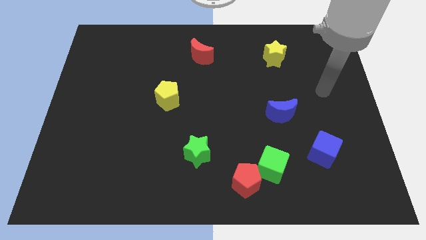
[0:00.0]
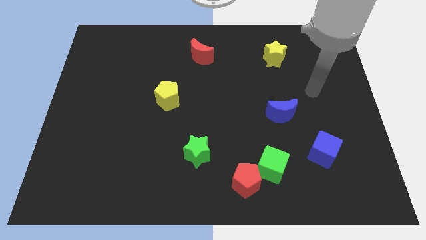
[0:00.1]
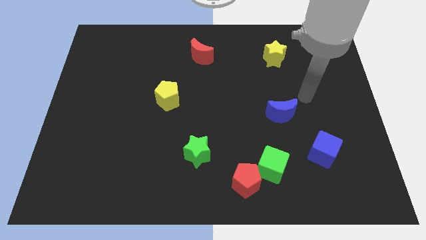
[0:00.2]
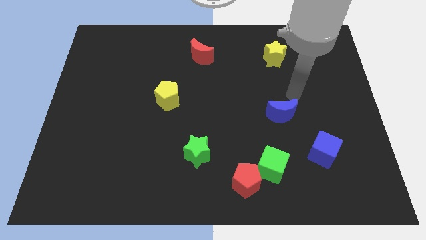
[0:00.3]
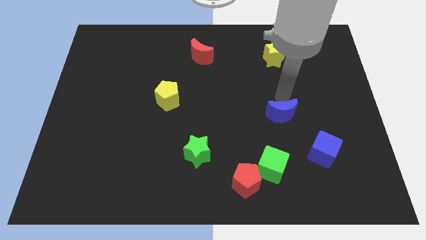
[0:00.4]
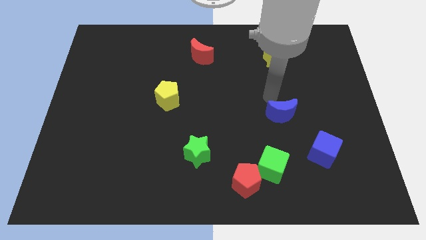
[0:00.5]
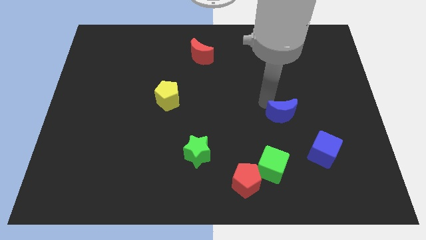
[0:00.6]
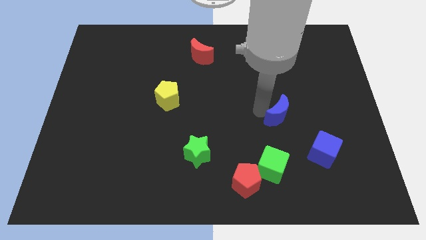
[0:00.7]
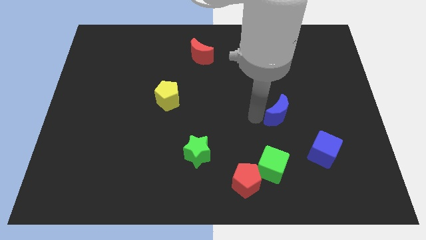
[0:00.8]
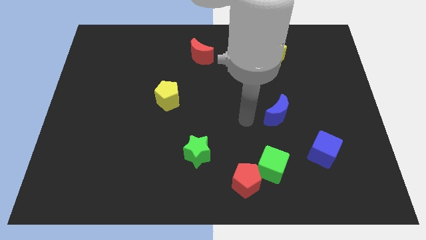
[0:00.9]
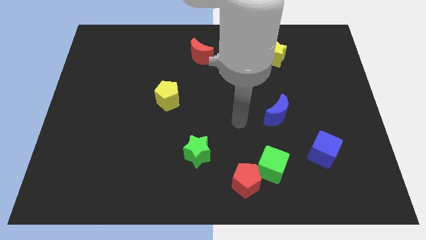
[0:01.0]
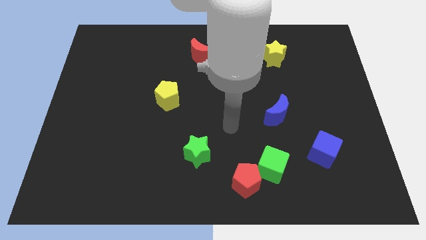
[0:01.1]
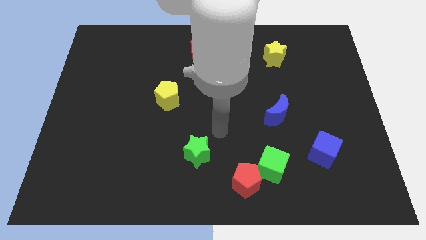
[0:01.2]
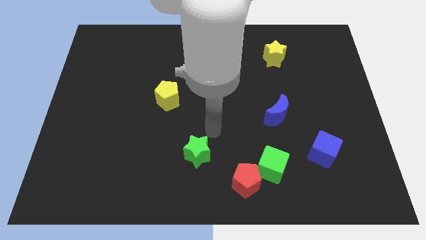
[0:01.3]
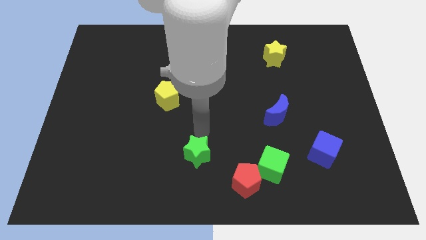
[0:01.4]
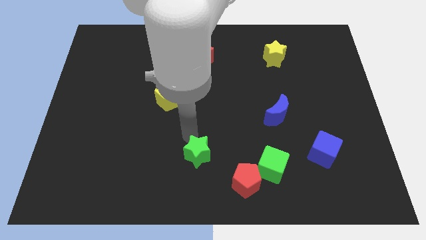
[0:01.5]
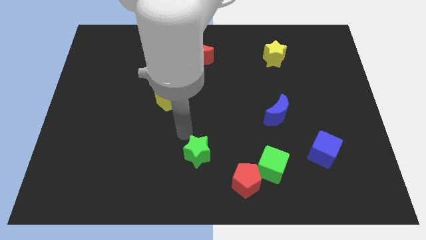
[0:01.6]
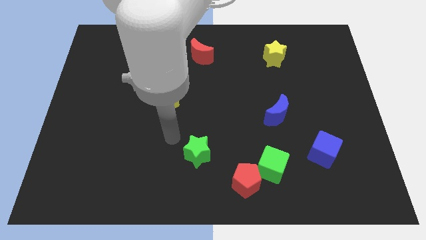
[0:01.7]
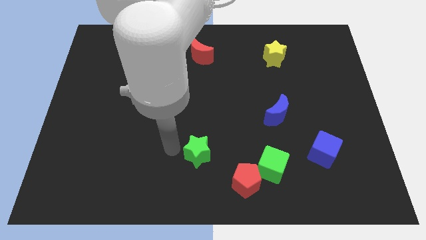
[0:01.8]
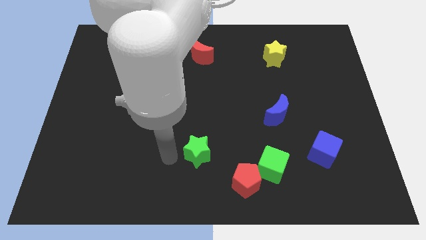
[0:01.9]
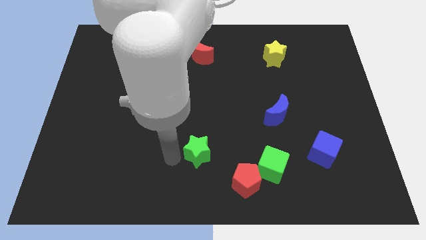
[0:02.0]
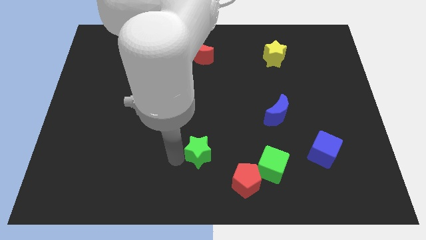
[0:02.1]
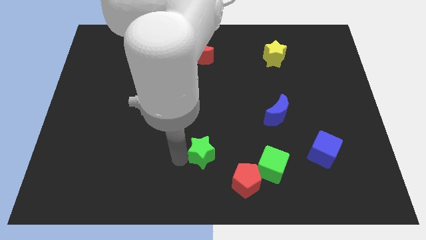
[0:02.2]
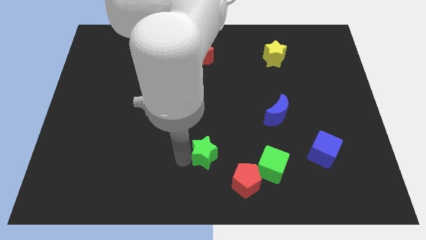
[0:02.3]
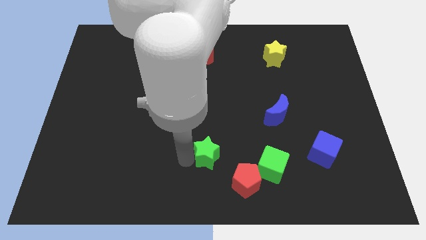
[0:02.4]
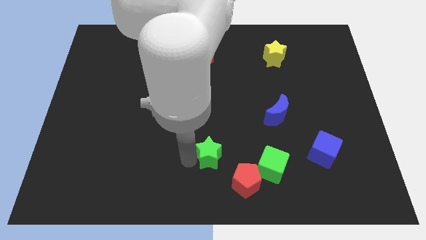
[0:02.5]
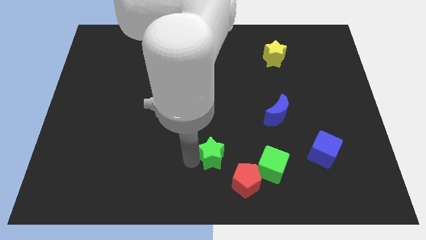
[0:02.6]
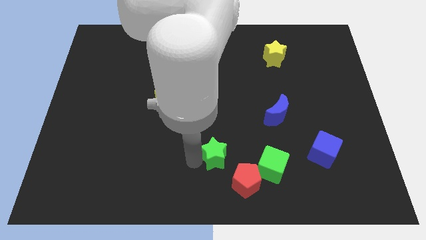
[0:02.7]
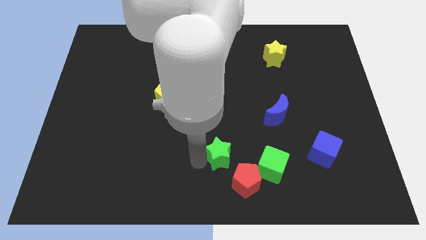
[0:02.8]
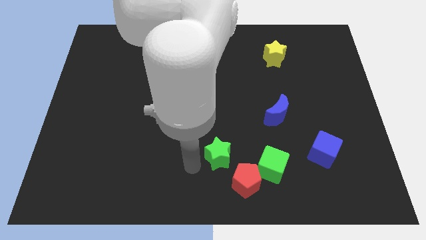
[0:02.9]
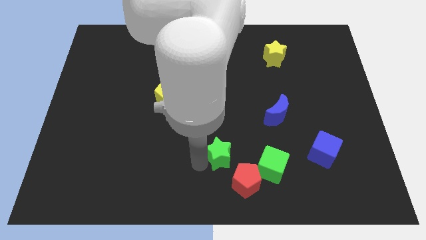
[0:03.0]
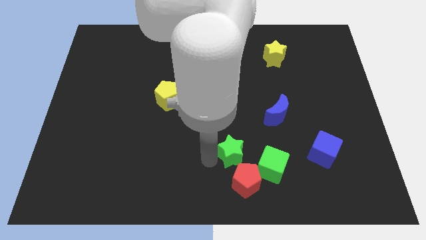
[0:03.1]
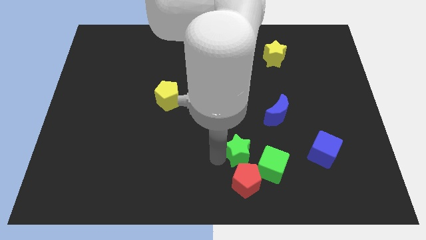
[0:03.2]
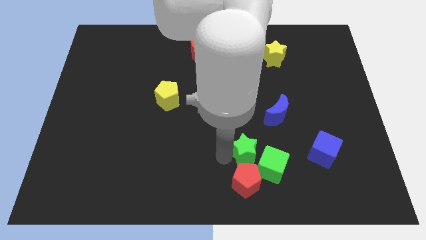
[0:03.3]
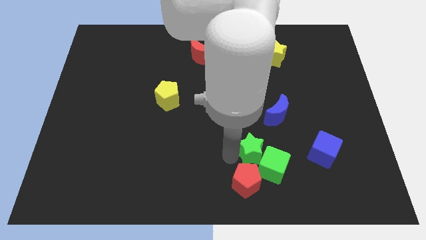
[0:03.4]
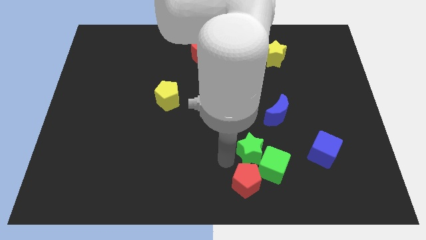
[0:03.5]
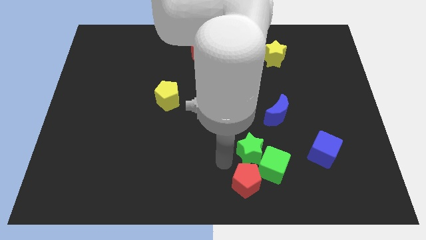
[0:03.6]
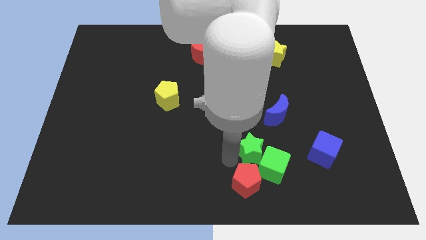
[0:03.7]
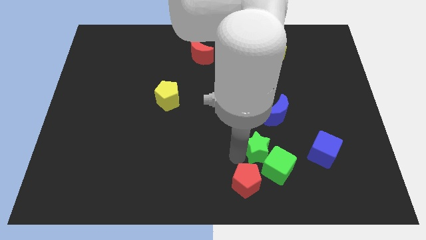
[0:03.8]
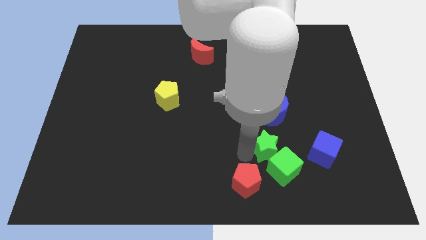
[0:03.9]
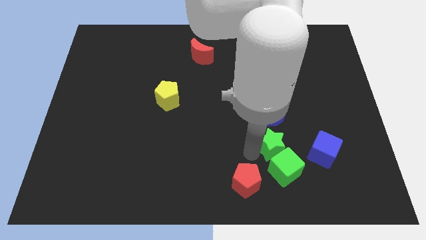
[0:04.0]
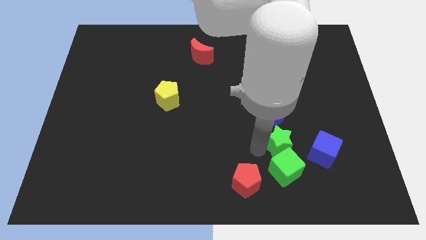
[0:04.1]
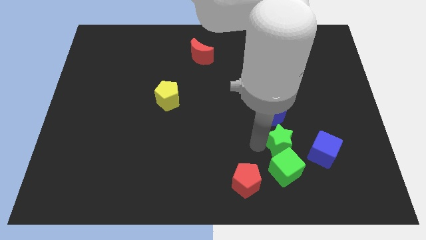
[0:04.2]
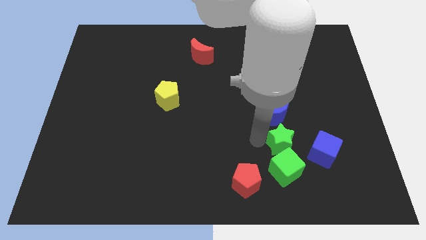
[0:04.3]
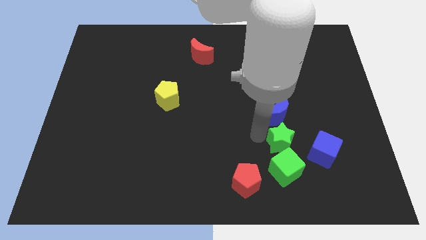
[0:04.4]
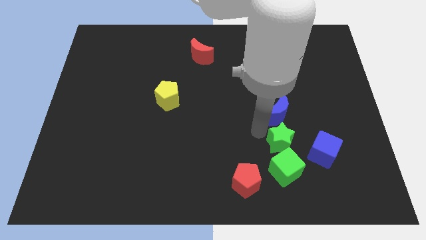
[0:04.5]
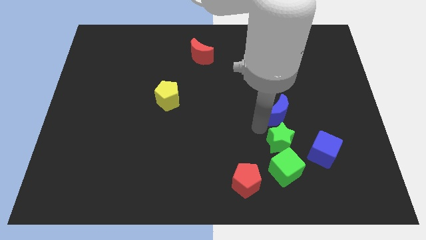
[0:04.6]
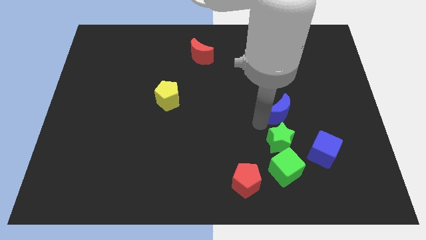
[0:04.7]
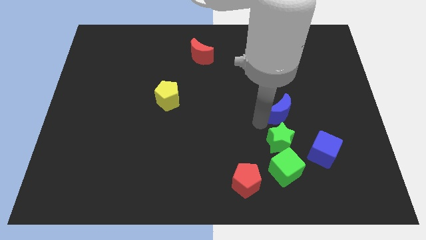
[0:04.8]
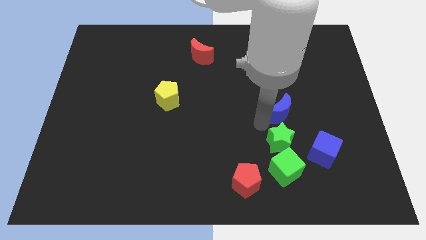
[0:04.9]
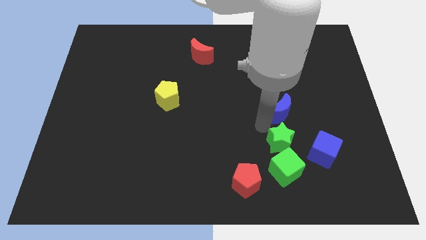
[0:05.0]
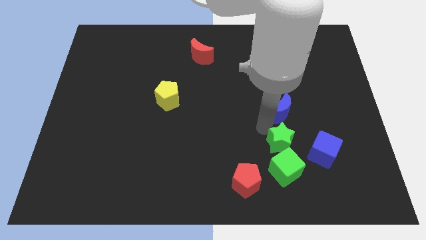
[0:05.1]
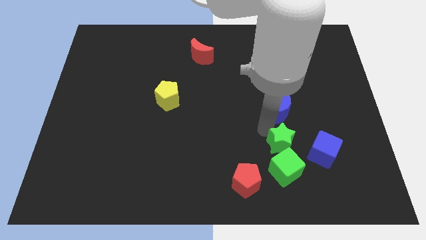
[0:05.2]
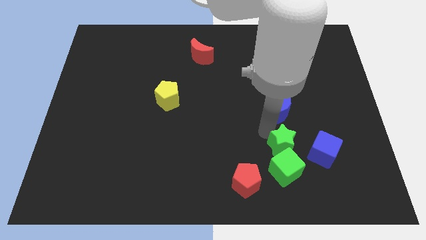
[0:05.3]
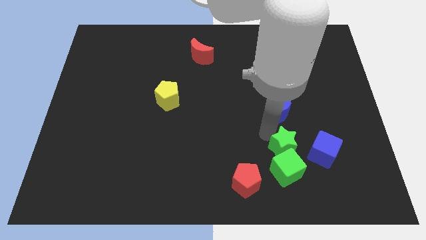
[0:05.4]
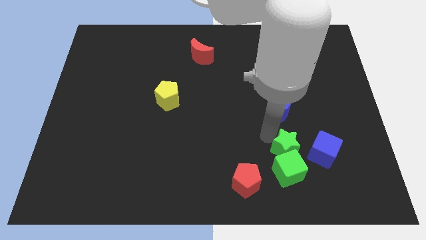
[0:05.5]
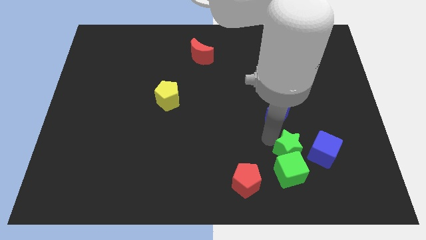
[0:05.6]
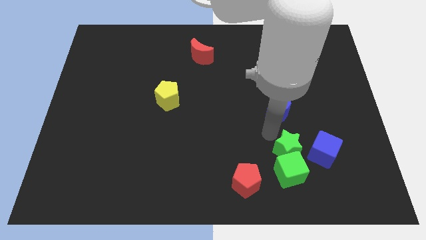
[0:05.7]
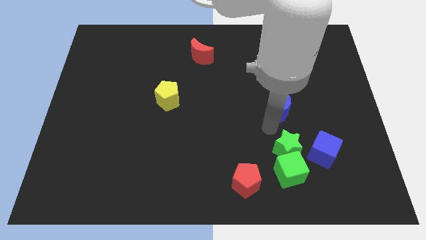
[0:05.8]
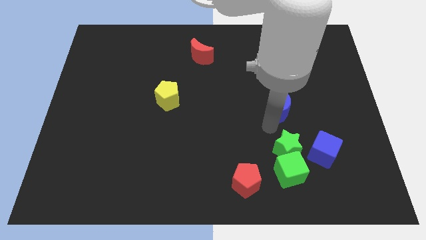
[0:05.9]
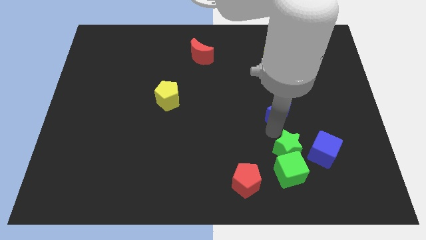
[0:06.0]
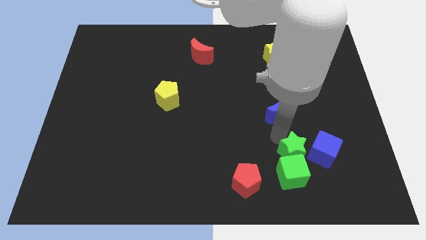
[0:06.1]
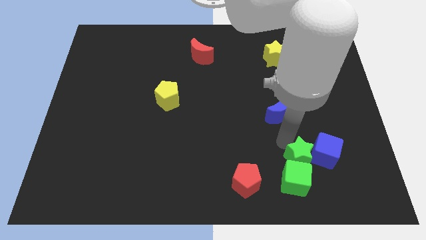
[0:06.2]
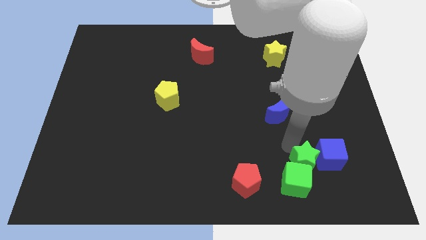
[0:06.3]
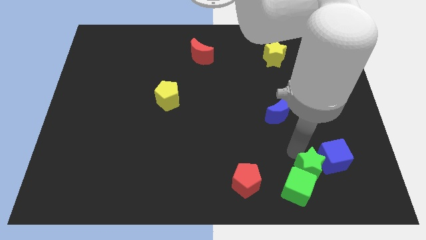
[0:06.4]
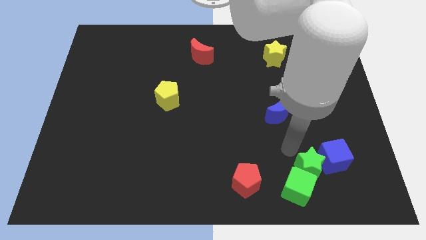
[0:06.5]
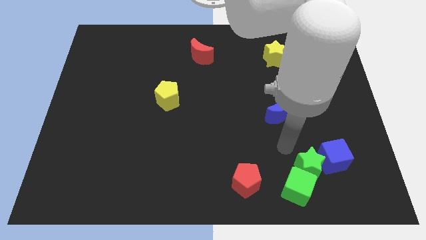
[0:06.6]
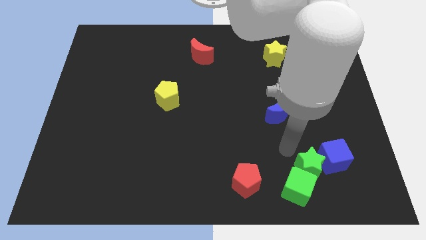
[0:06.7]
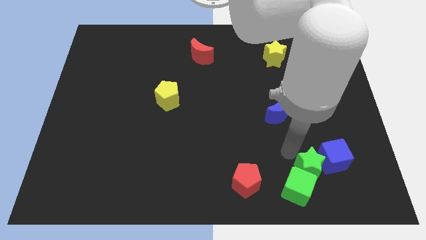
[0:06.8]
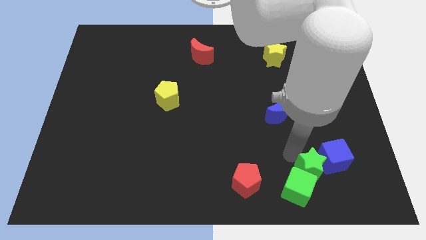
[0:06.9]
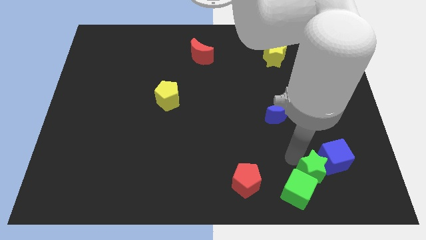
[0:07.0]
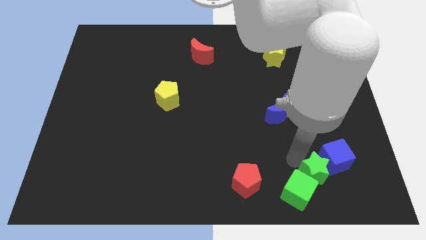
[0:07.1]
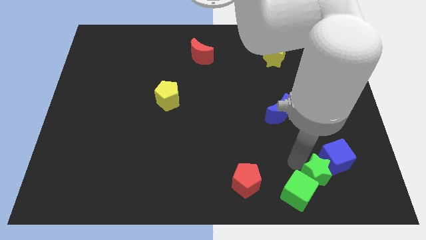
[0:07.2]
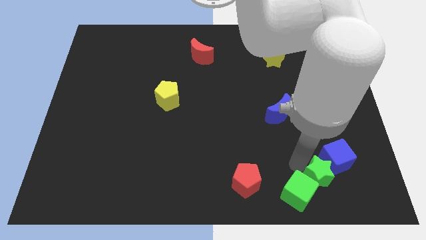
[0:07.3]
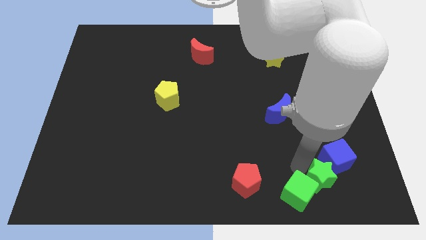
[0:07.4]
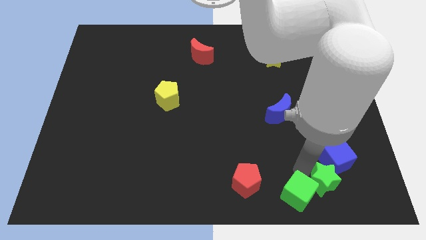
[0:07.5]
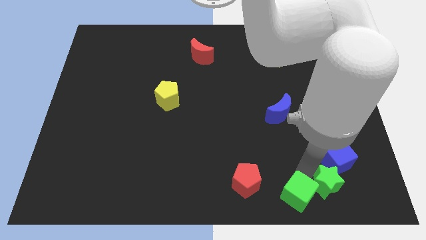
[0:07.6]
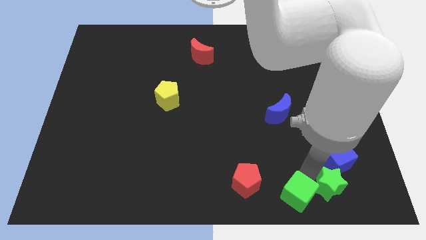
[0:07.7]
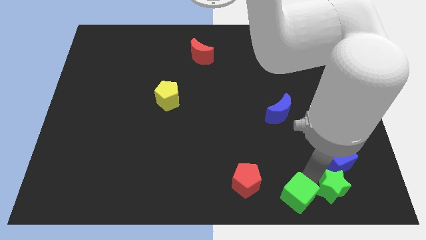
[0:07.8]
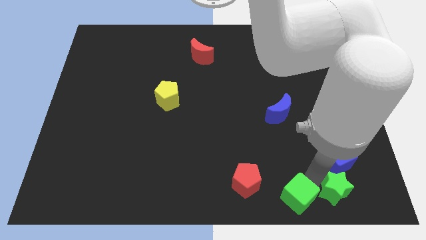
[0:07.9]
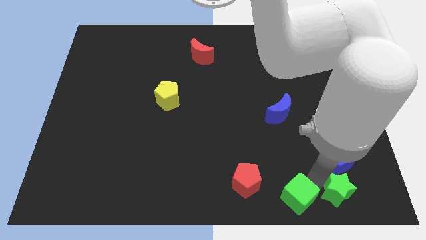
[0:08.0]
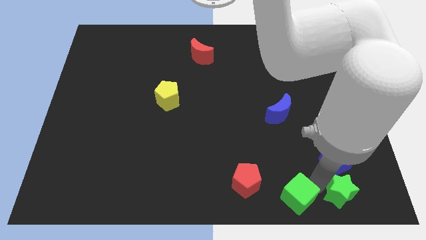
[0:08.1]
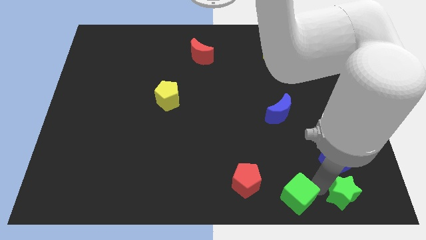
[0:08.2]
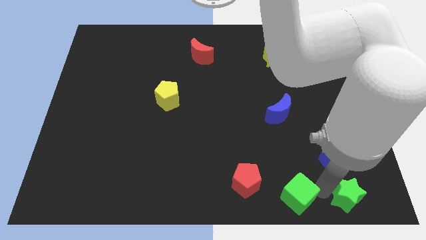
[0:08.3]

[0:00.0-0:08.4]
put the green star to the bottom right corner
